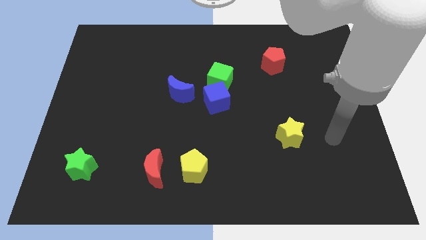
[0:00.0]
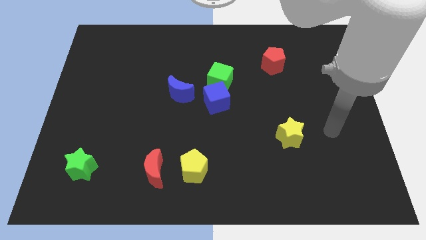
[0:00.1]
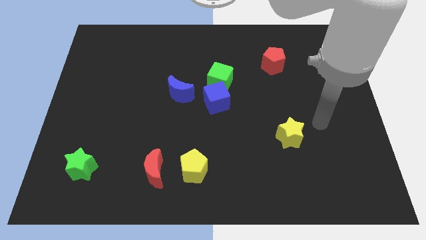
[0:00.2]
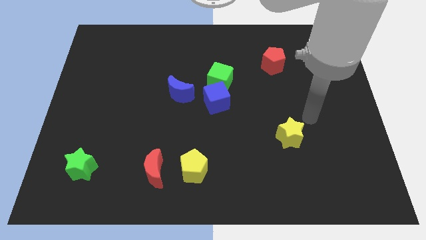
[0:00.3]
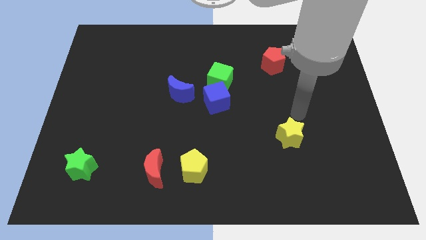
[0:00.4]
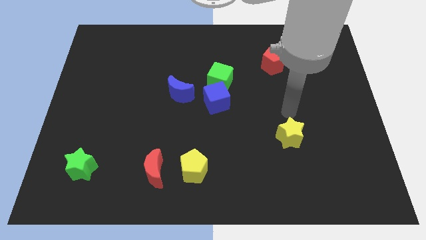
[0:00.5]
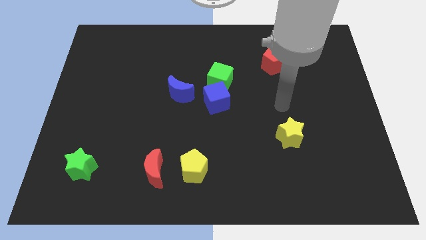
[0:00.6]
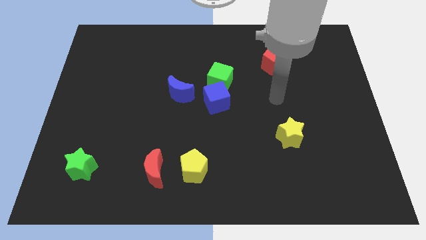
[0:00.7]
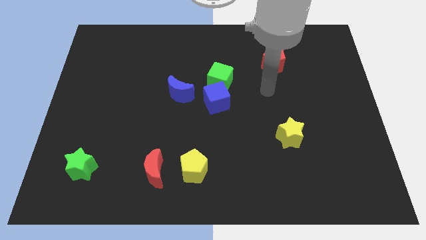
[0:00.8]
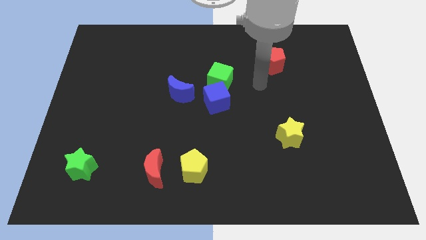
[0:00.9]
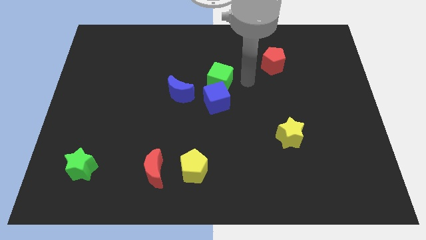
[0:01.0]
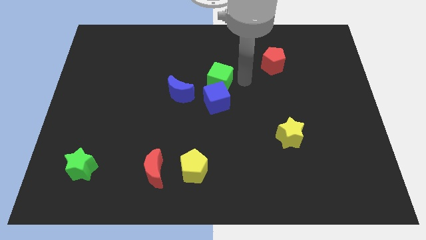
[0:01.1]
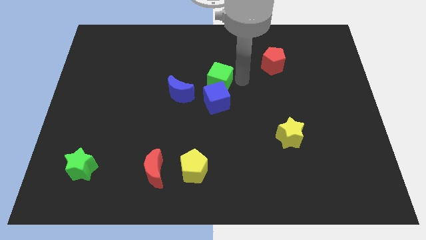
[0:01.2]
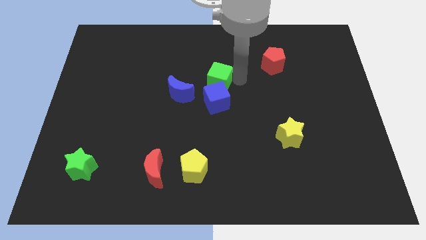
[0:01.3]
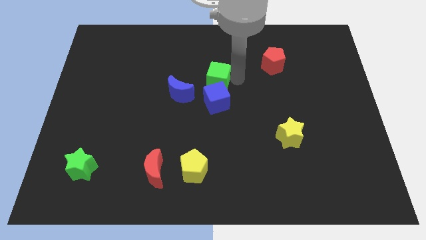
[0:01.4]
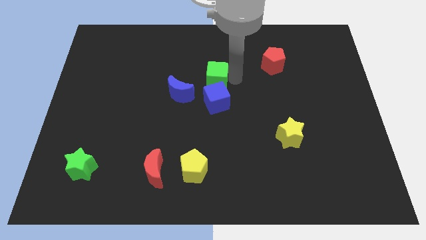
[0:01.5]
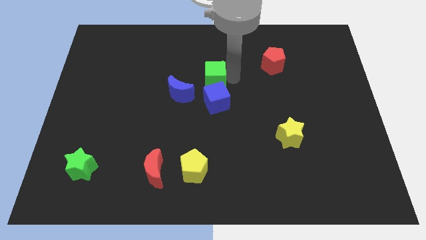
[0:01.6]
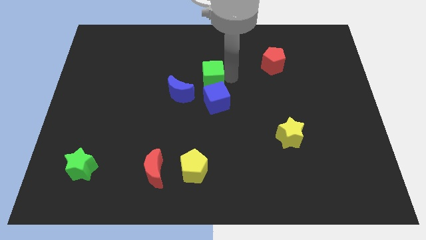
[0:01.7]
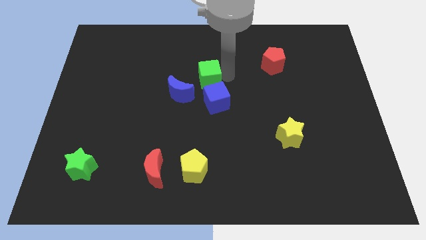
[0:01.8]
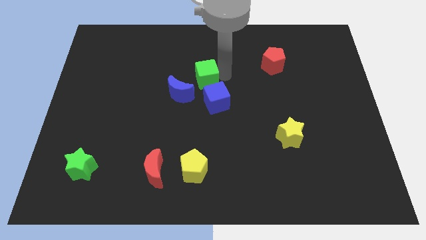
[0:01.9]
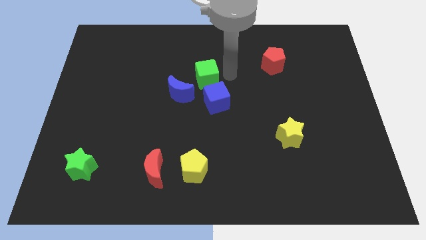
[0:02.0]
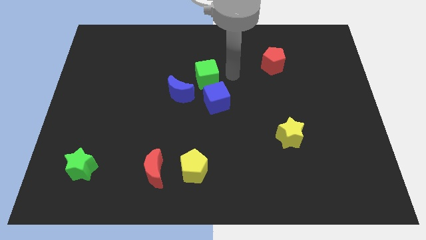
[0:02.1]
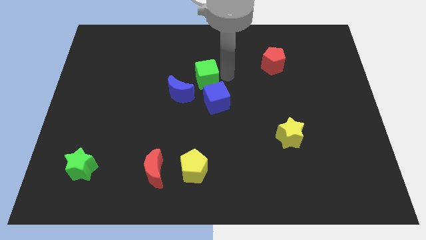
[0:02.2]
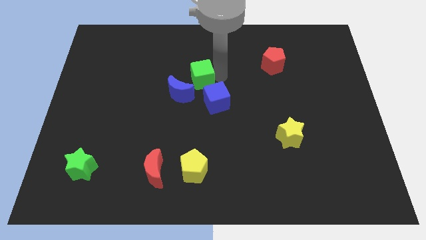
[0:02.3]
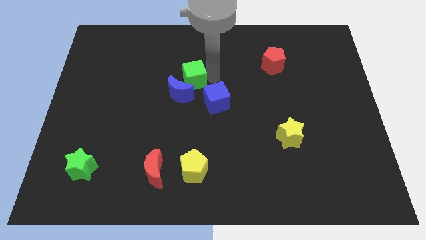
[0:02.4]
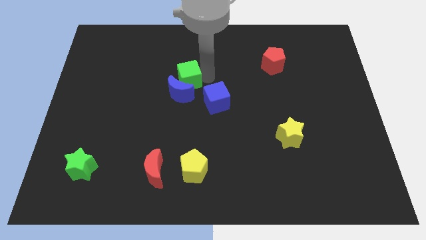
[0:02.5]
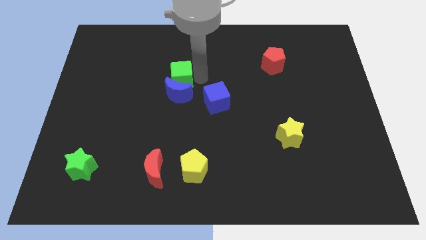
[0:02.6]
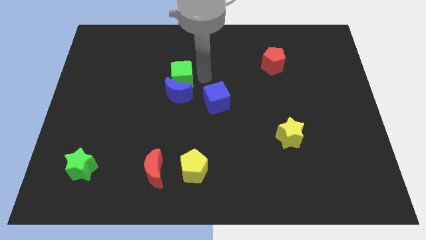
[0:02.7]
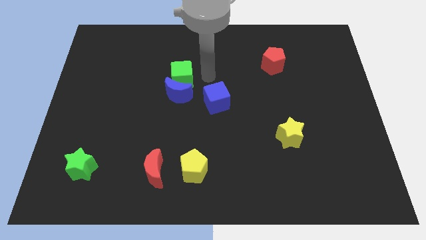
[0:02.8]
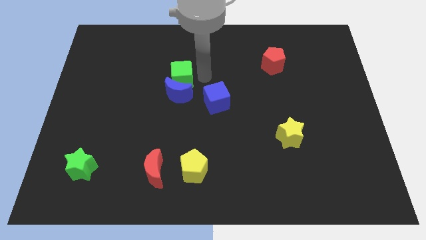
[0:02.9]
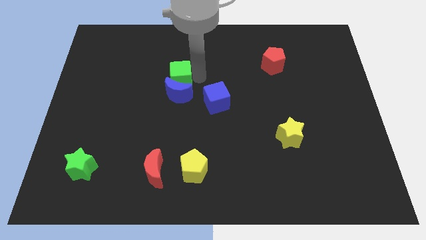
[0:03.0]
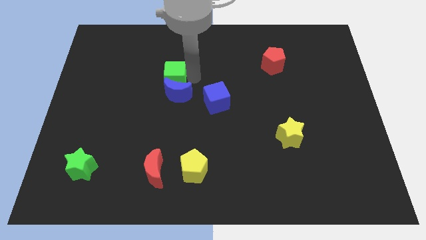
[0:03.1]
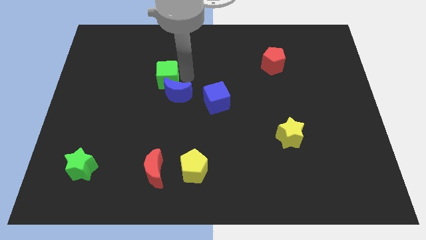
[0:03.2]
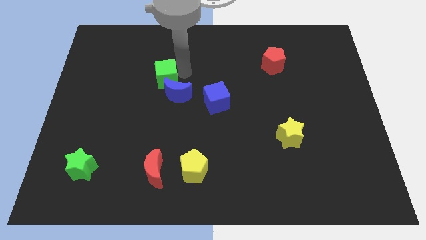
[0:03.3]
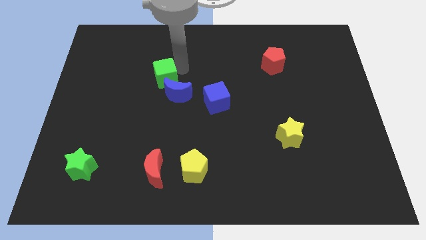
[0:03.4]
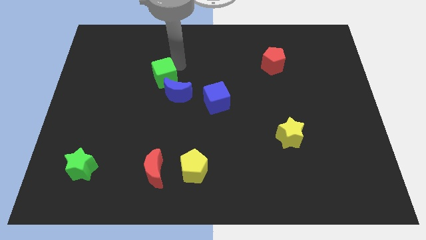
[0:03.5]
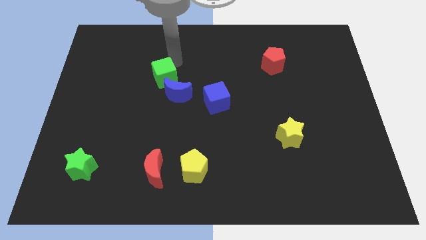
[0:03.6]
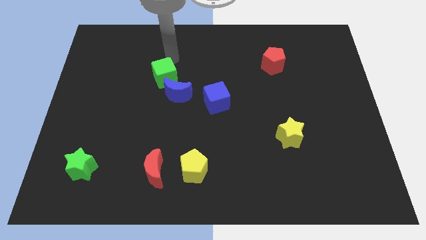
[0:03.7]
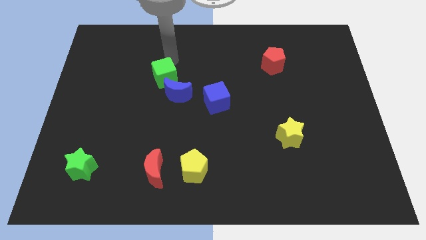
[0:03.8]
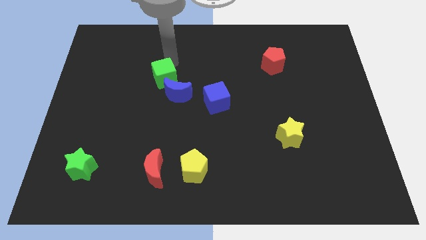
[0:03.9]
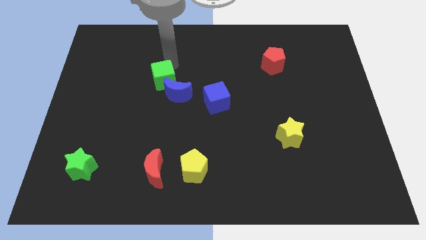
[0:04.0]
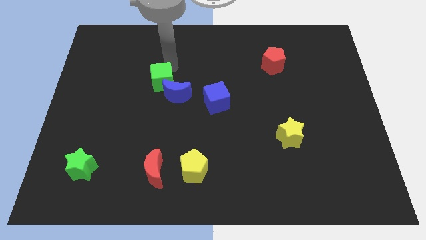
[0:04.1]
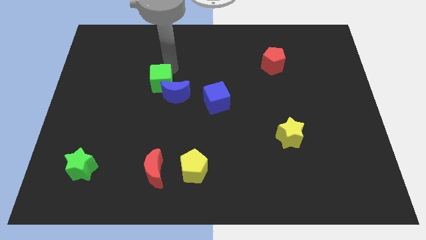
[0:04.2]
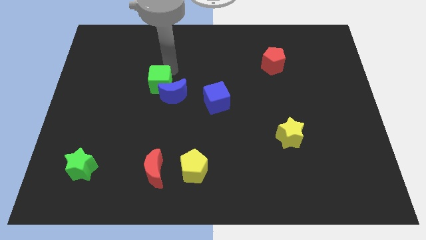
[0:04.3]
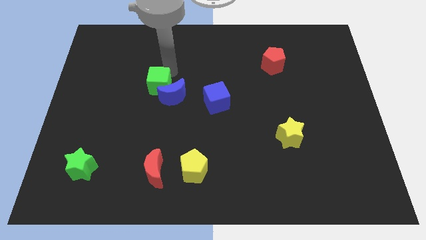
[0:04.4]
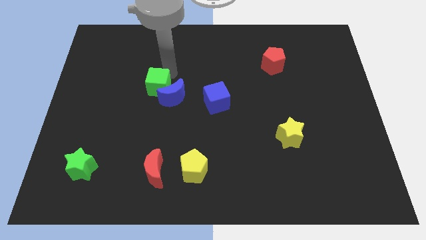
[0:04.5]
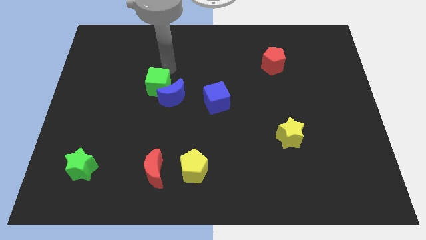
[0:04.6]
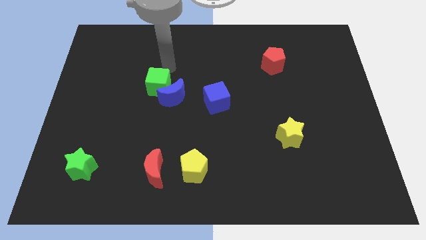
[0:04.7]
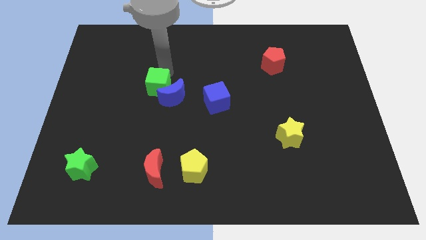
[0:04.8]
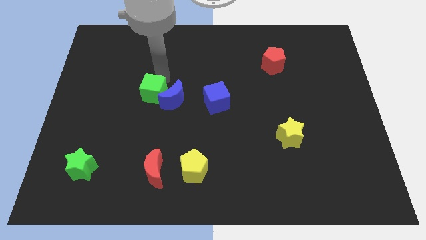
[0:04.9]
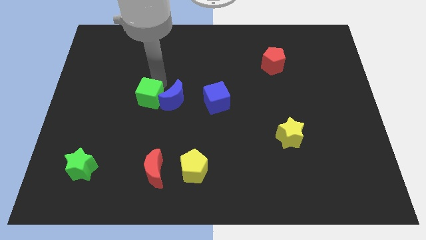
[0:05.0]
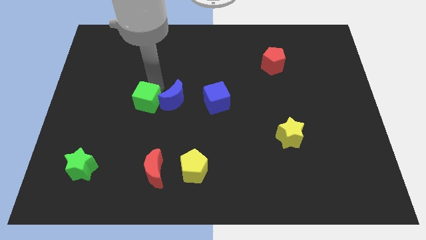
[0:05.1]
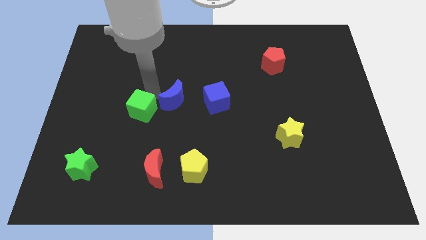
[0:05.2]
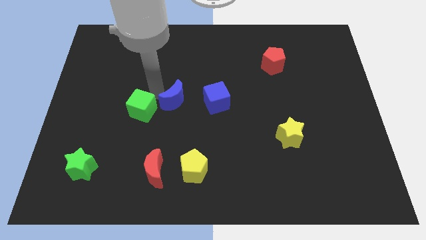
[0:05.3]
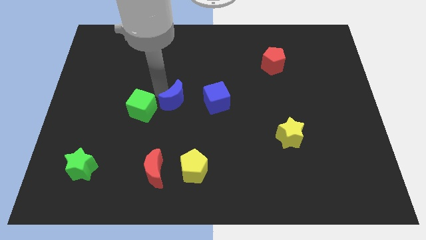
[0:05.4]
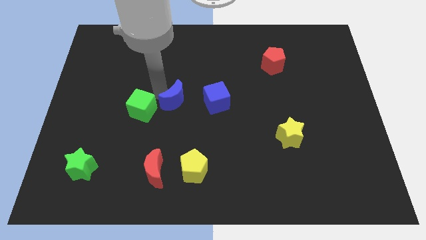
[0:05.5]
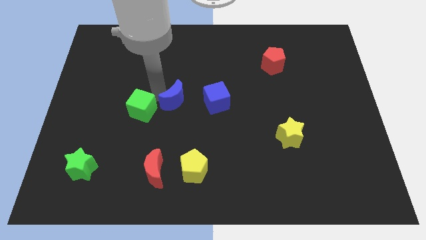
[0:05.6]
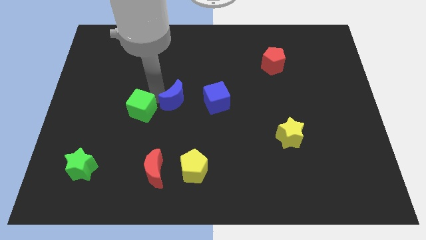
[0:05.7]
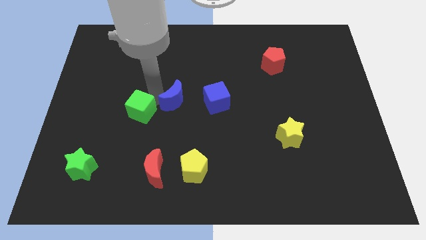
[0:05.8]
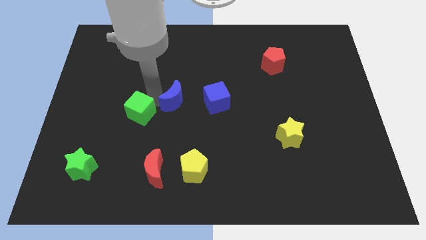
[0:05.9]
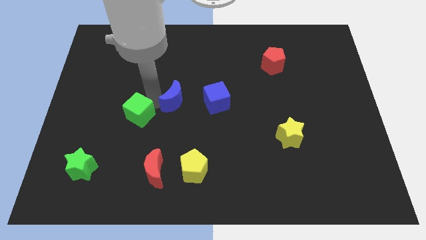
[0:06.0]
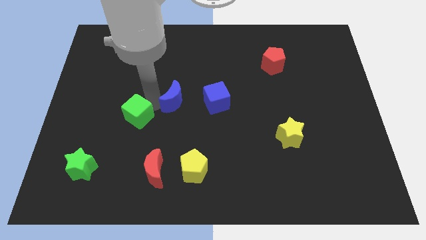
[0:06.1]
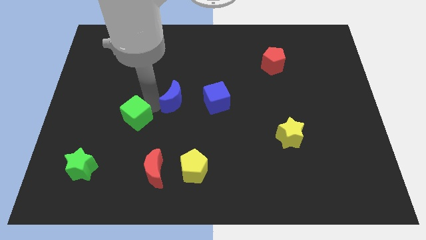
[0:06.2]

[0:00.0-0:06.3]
move the green cube down and then left

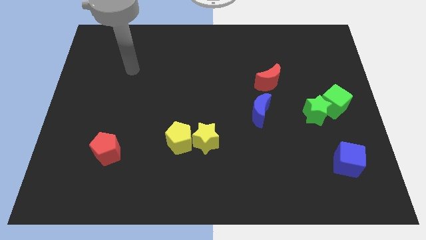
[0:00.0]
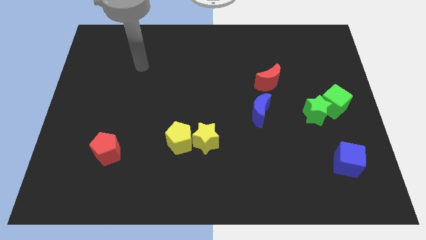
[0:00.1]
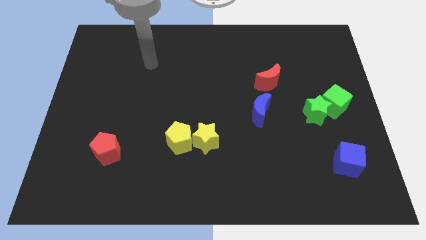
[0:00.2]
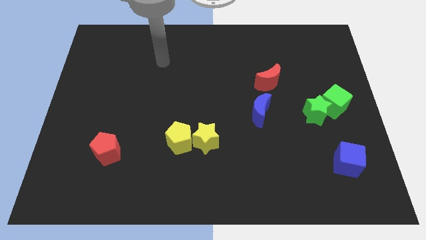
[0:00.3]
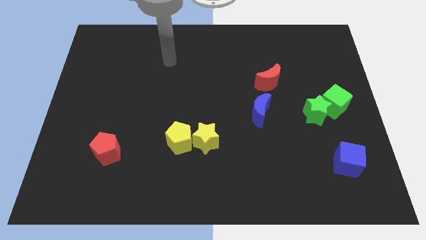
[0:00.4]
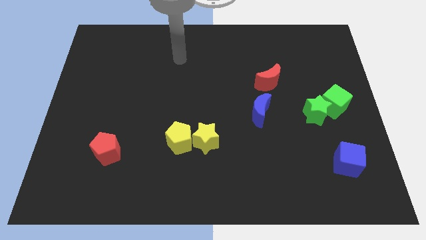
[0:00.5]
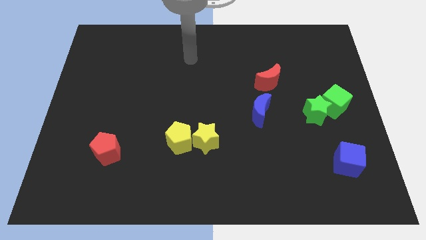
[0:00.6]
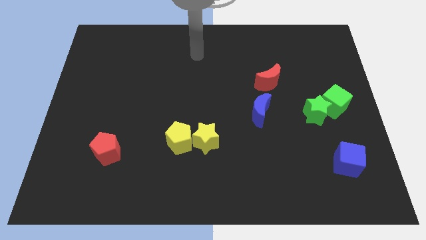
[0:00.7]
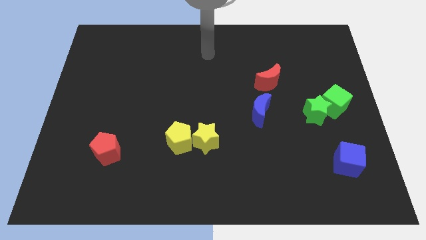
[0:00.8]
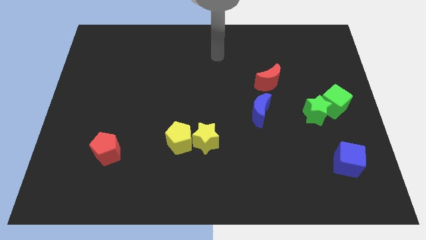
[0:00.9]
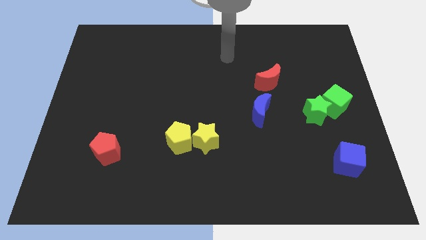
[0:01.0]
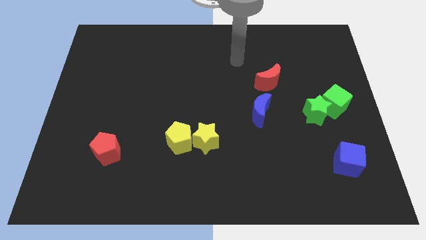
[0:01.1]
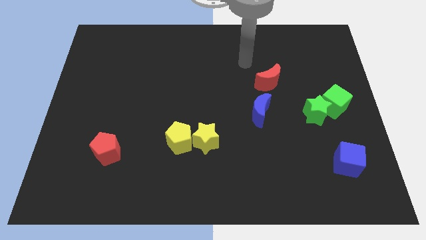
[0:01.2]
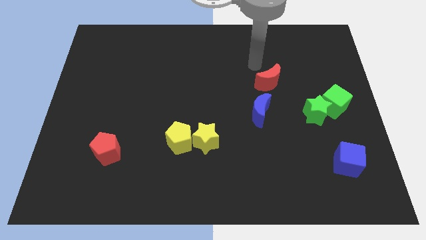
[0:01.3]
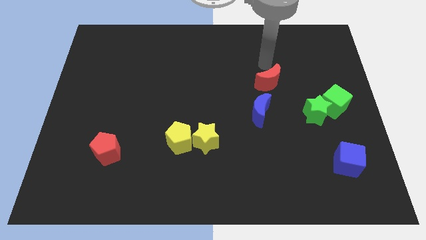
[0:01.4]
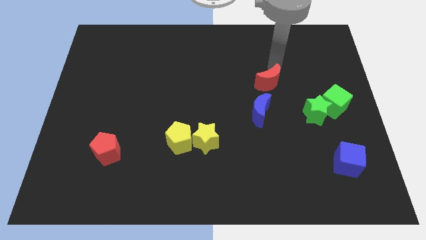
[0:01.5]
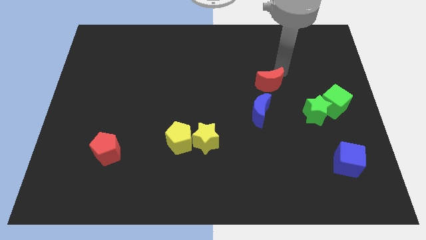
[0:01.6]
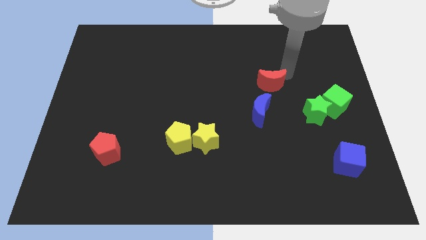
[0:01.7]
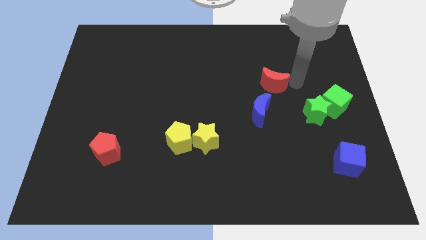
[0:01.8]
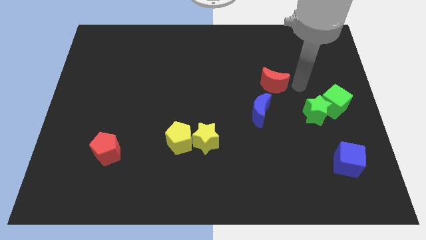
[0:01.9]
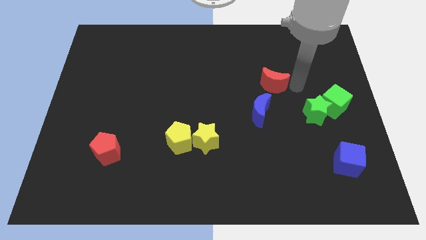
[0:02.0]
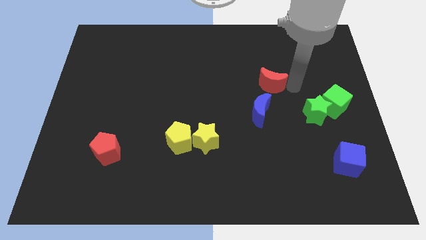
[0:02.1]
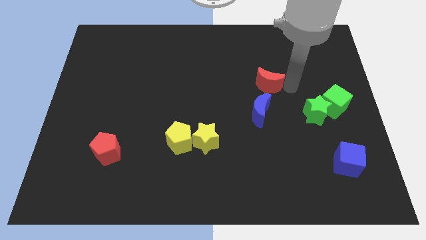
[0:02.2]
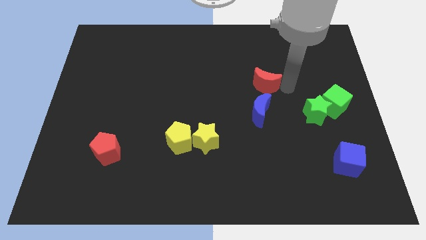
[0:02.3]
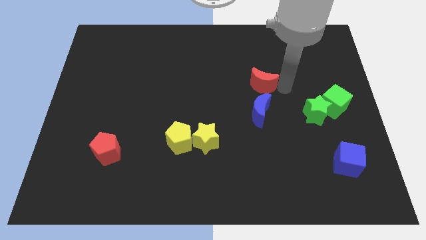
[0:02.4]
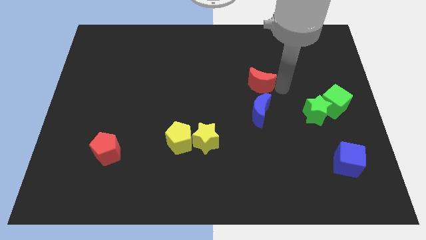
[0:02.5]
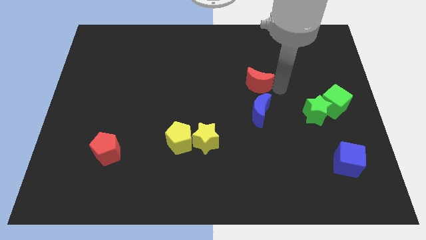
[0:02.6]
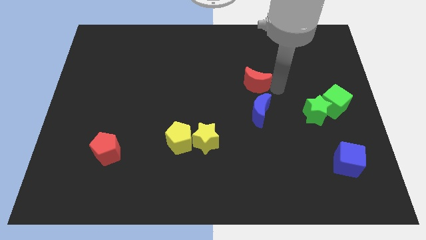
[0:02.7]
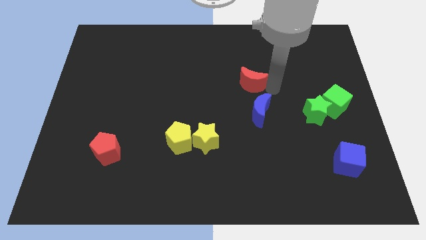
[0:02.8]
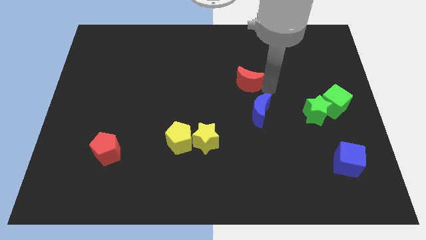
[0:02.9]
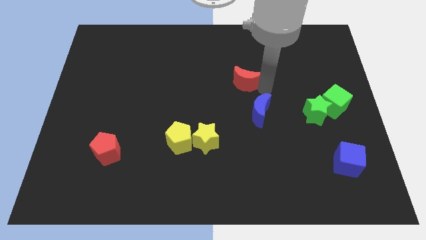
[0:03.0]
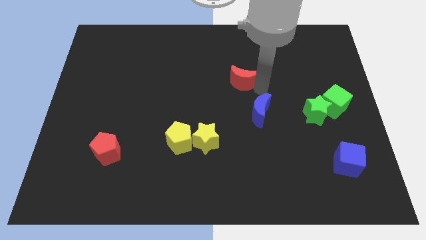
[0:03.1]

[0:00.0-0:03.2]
move the red moon left a little
